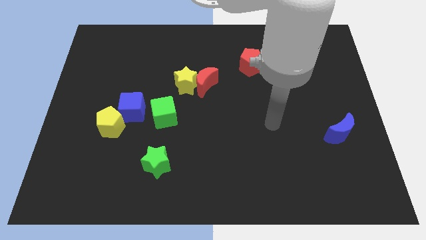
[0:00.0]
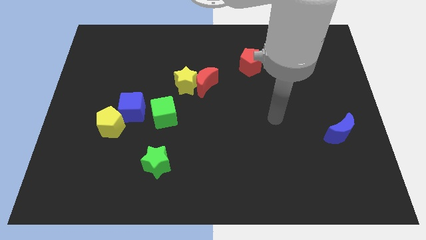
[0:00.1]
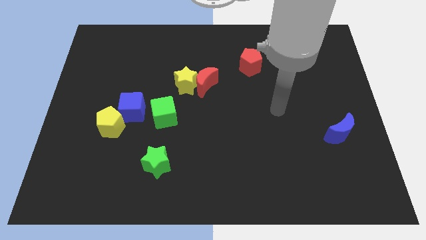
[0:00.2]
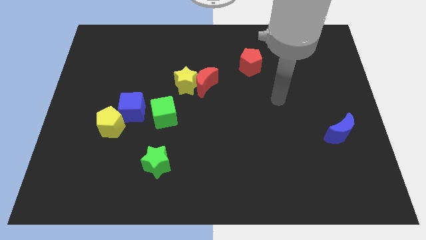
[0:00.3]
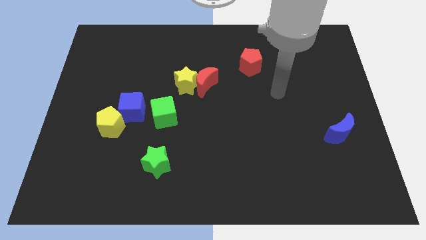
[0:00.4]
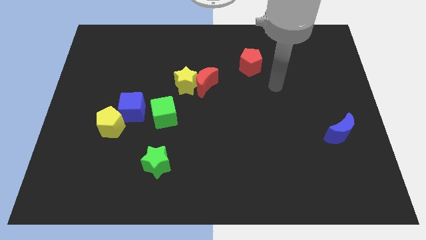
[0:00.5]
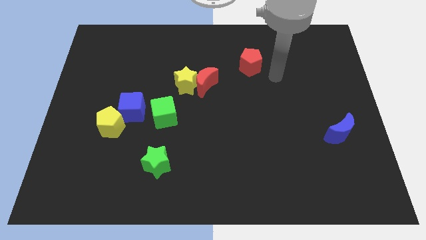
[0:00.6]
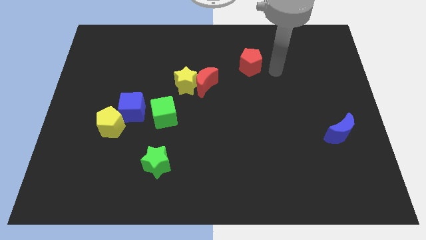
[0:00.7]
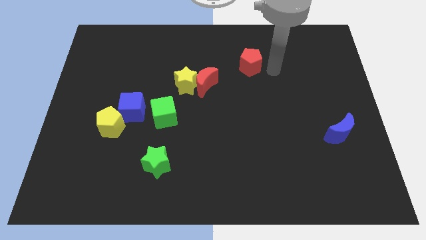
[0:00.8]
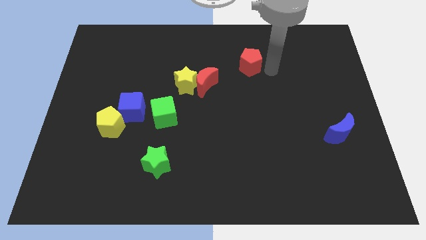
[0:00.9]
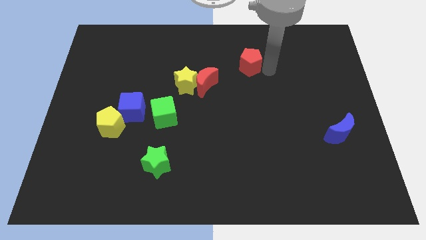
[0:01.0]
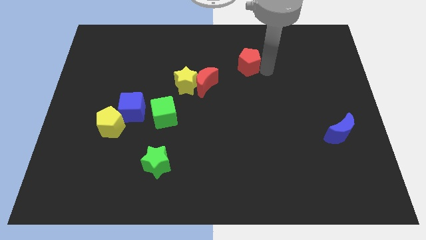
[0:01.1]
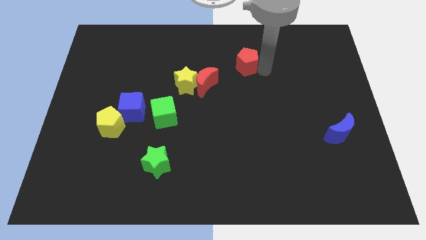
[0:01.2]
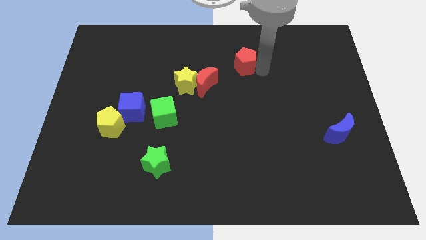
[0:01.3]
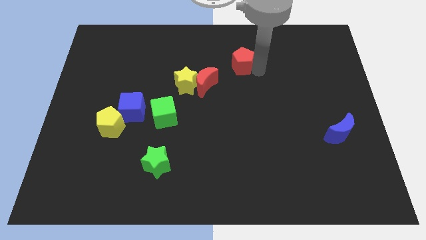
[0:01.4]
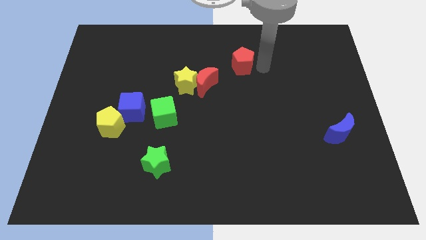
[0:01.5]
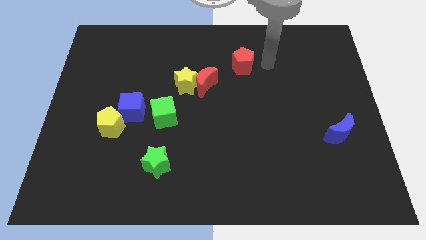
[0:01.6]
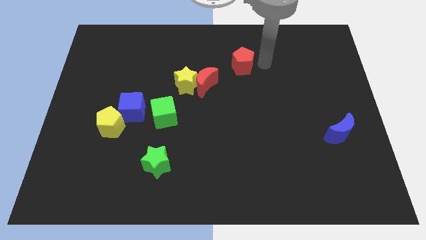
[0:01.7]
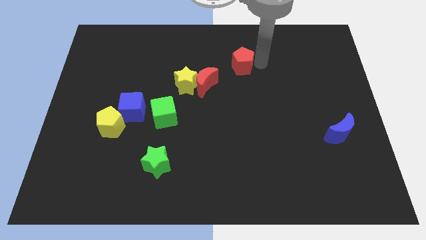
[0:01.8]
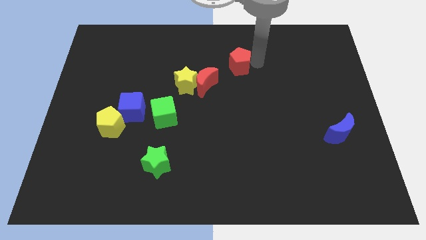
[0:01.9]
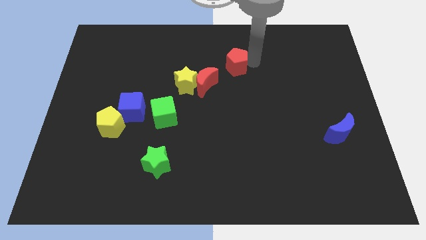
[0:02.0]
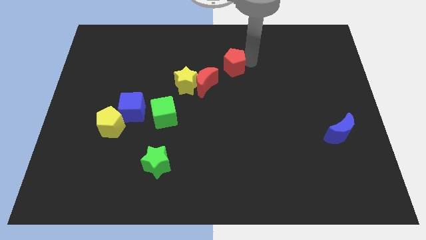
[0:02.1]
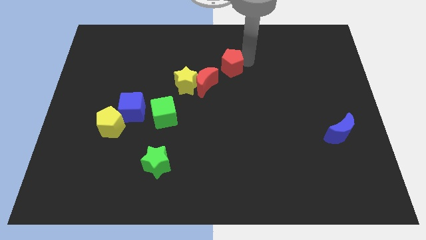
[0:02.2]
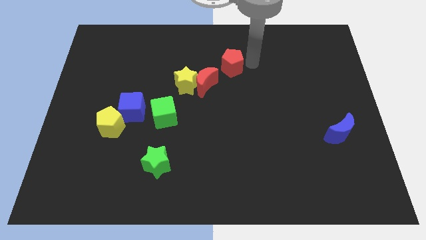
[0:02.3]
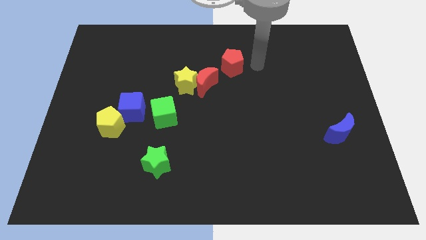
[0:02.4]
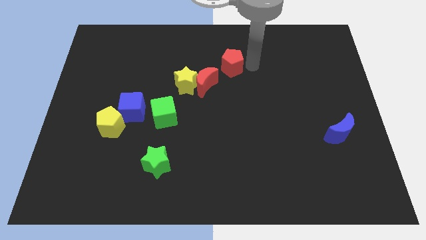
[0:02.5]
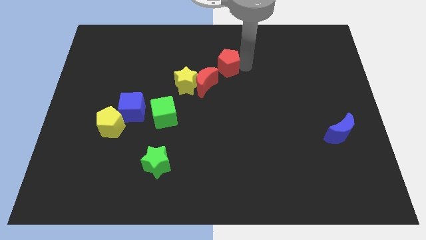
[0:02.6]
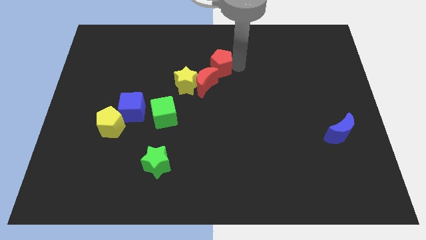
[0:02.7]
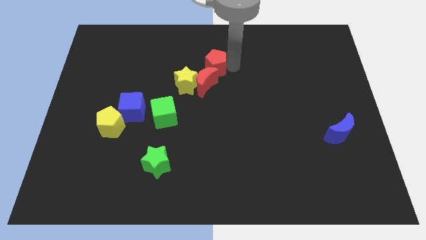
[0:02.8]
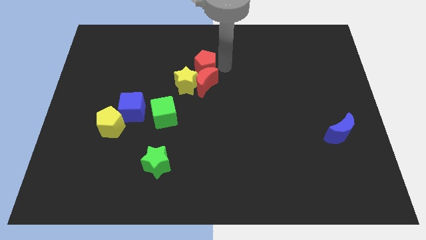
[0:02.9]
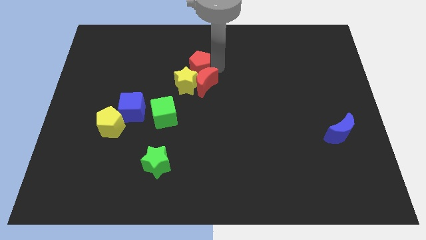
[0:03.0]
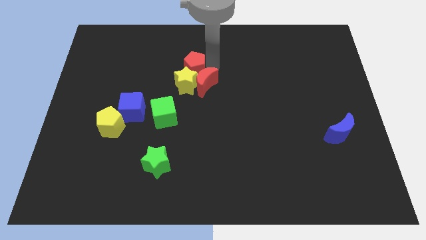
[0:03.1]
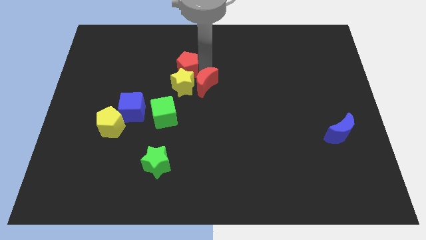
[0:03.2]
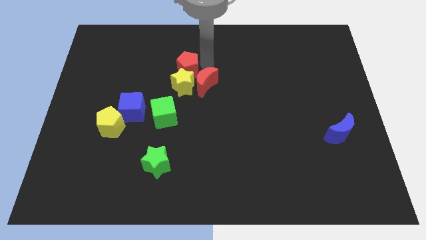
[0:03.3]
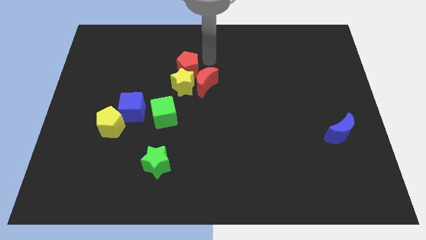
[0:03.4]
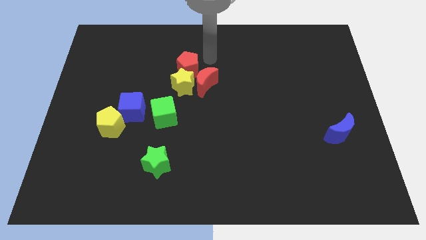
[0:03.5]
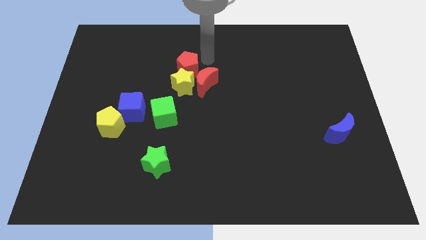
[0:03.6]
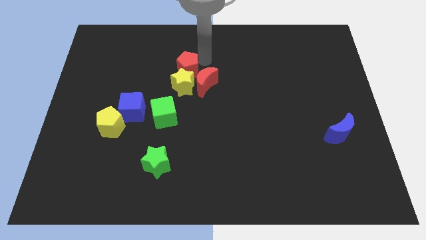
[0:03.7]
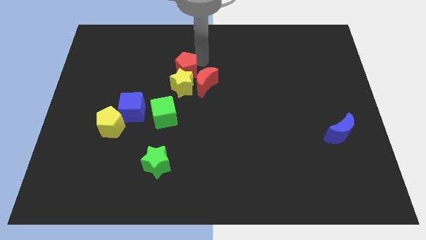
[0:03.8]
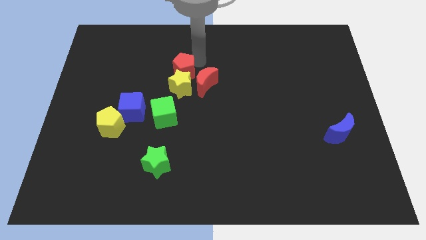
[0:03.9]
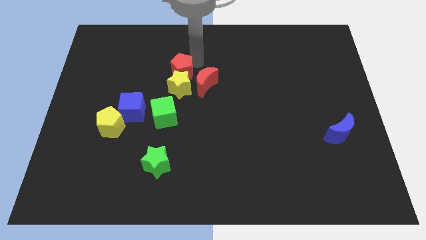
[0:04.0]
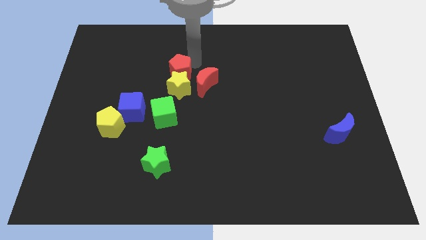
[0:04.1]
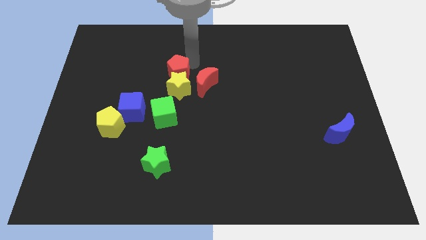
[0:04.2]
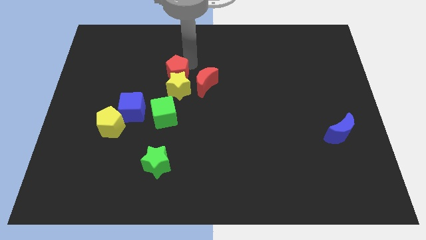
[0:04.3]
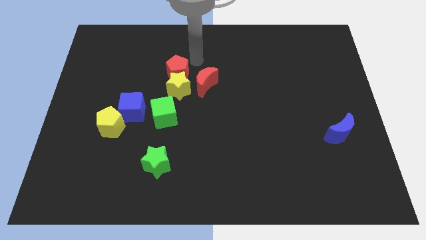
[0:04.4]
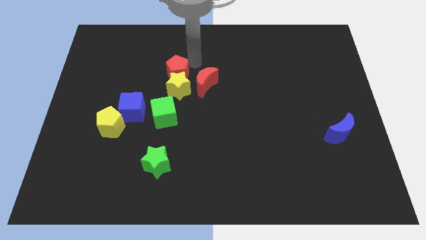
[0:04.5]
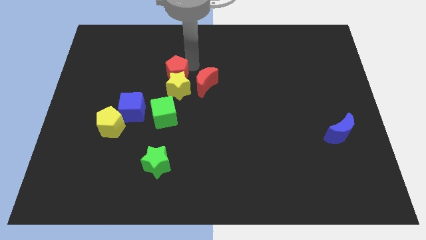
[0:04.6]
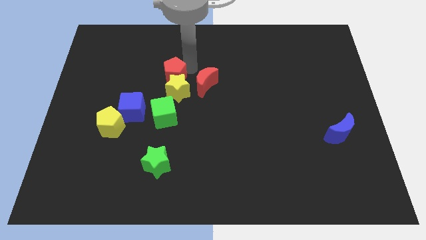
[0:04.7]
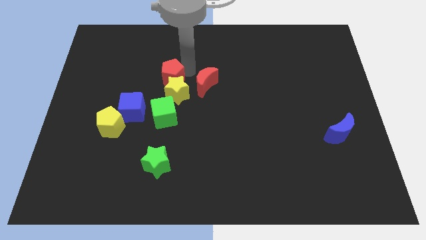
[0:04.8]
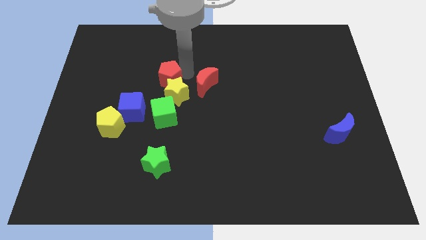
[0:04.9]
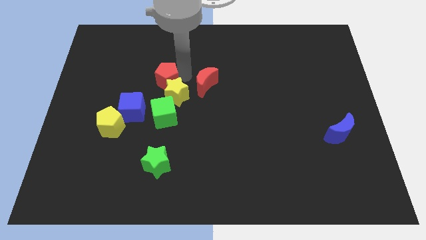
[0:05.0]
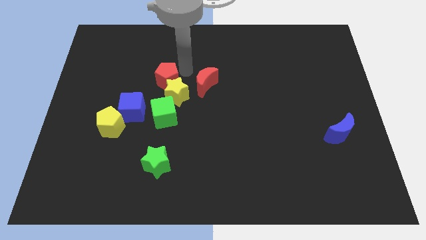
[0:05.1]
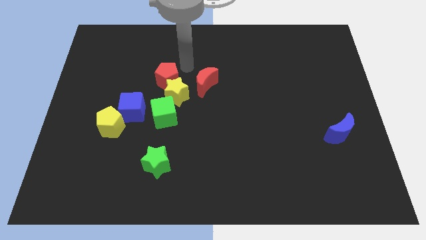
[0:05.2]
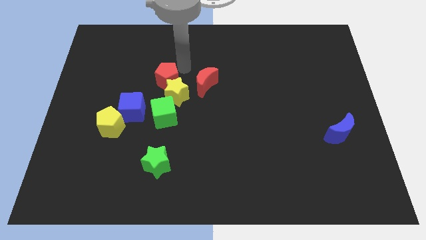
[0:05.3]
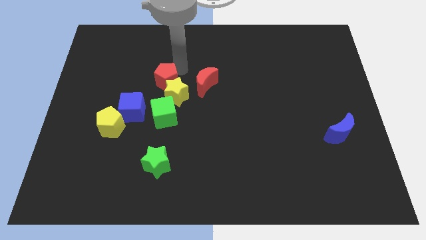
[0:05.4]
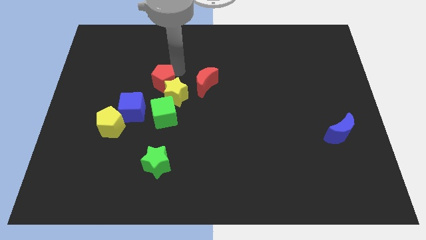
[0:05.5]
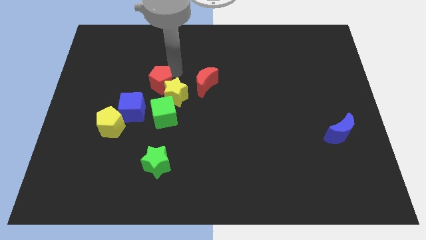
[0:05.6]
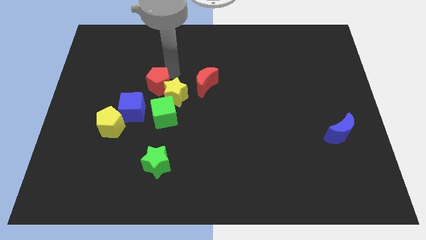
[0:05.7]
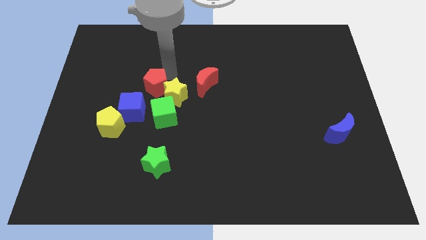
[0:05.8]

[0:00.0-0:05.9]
push the red pentagon to the top left side of the green cube

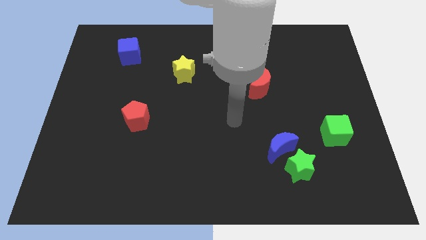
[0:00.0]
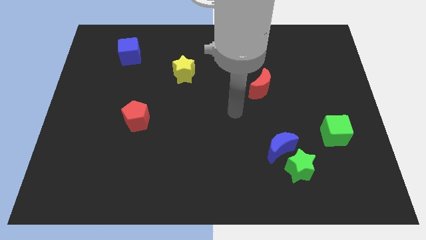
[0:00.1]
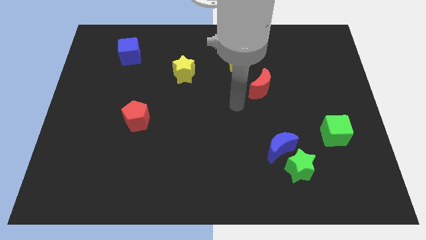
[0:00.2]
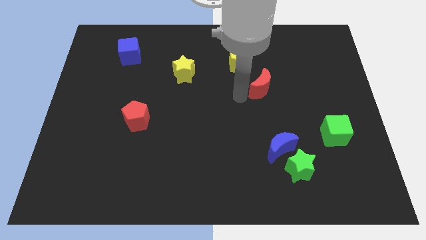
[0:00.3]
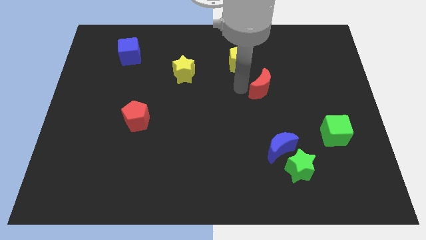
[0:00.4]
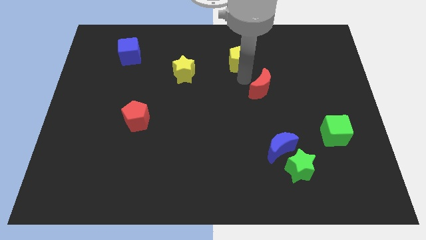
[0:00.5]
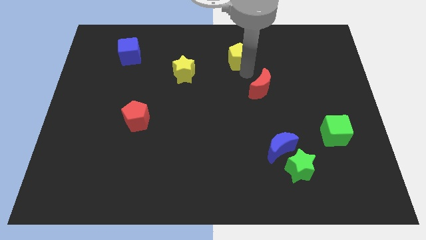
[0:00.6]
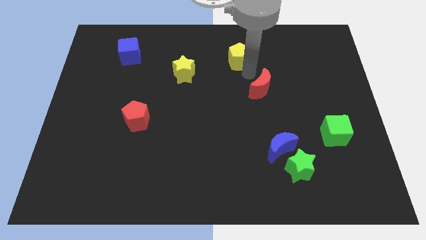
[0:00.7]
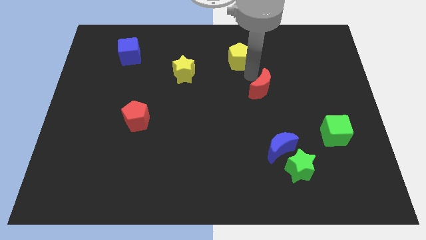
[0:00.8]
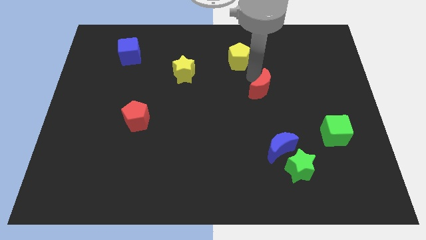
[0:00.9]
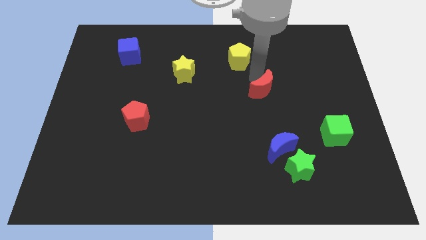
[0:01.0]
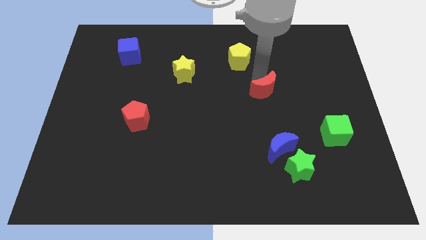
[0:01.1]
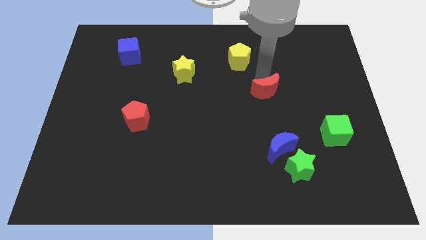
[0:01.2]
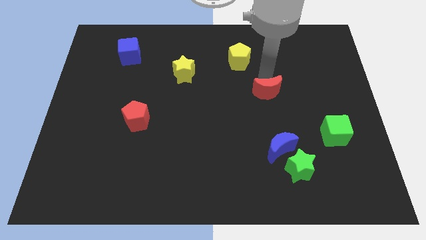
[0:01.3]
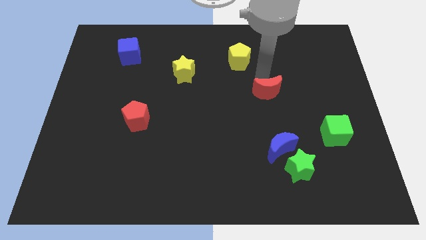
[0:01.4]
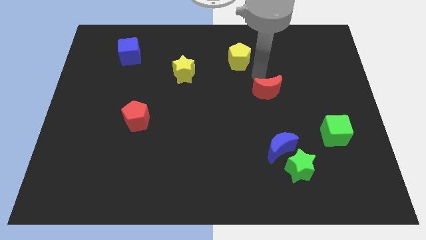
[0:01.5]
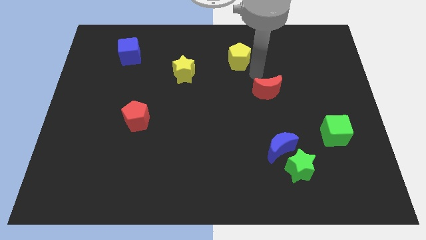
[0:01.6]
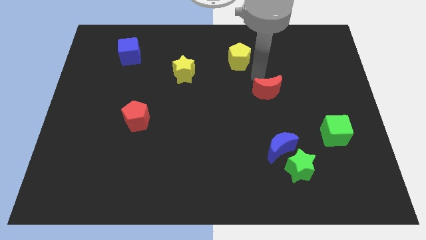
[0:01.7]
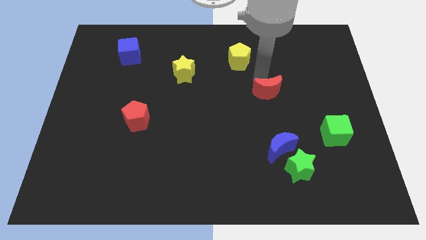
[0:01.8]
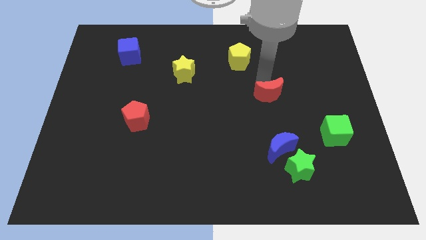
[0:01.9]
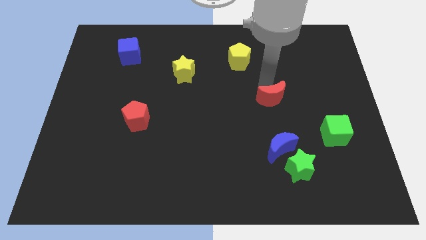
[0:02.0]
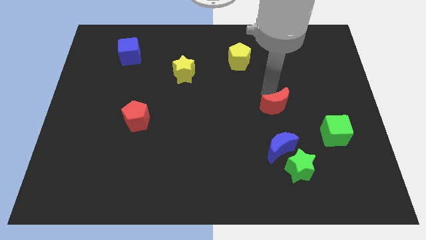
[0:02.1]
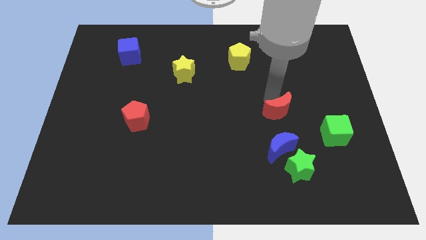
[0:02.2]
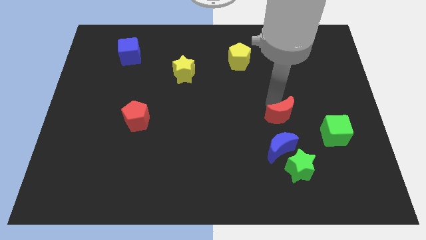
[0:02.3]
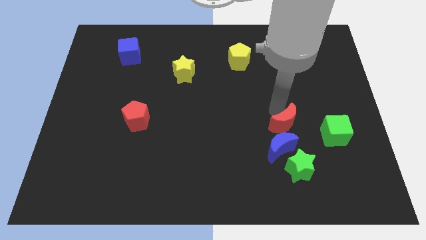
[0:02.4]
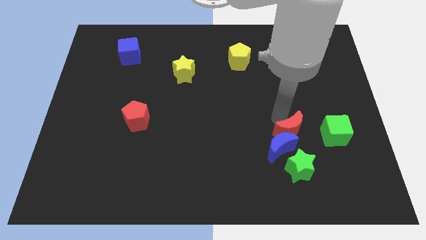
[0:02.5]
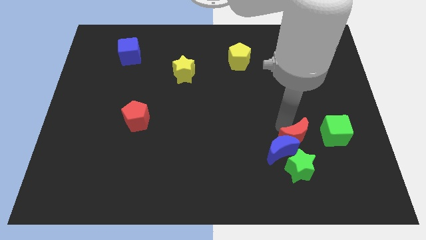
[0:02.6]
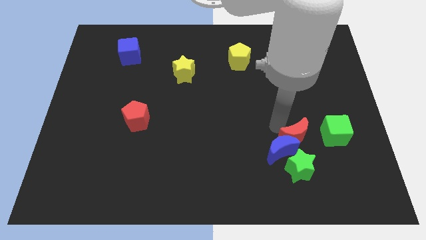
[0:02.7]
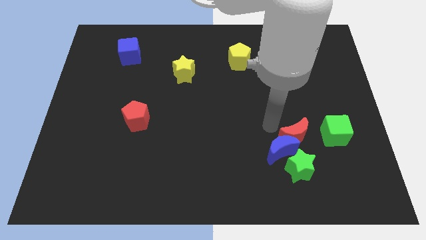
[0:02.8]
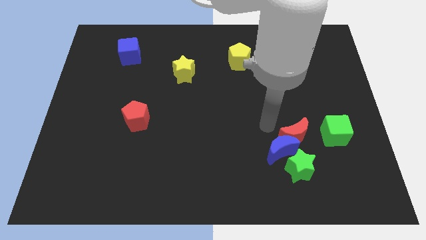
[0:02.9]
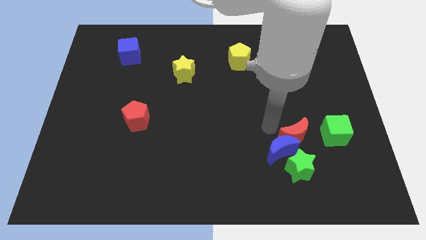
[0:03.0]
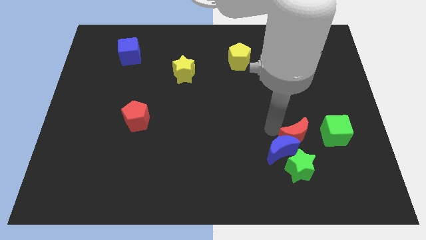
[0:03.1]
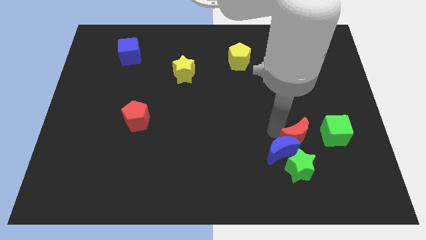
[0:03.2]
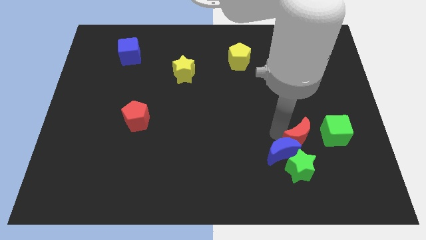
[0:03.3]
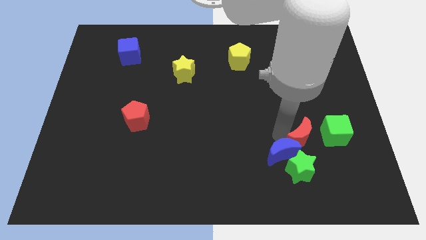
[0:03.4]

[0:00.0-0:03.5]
push the red moon to the top right of the green star
